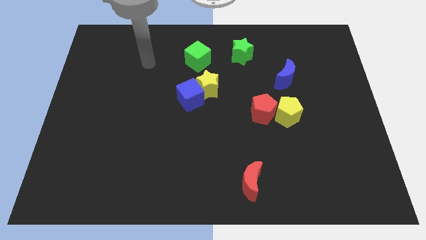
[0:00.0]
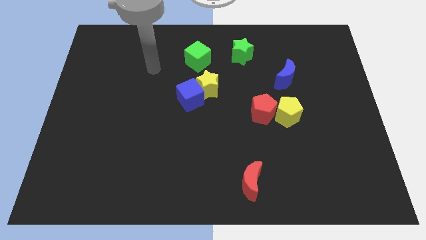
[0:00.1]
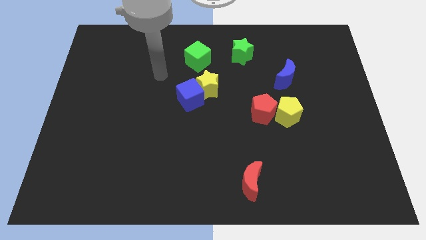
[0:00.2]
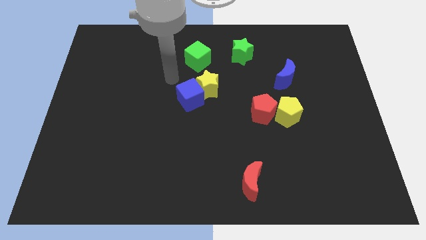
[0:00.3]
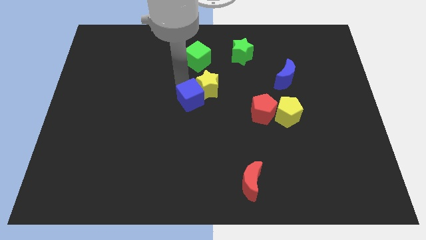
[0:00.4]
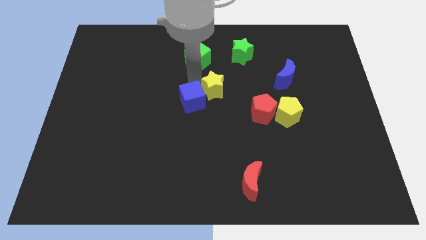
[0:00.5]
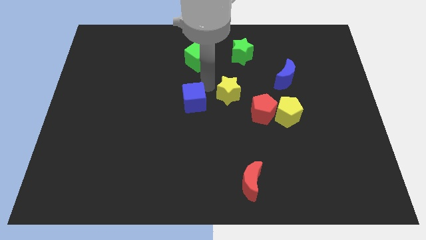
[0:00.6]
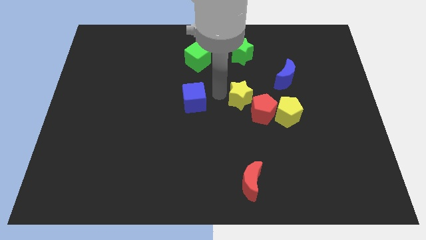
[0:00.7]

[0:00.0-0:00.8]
pull the blue cube apart from the yellow star

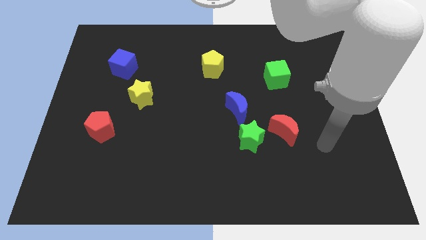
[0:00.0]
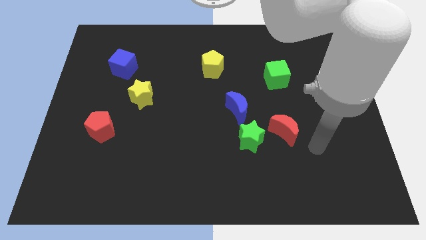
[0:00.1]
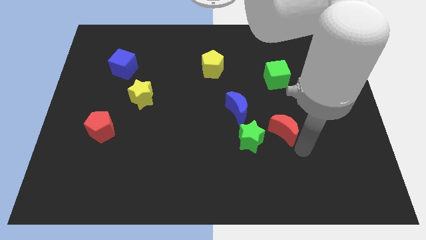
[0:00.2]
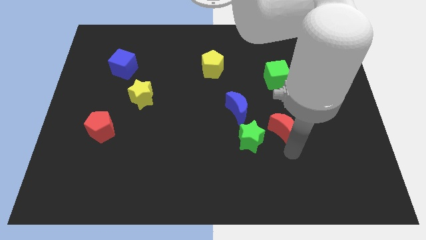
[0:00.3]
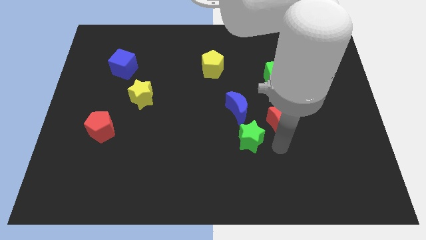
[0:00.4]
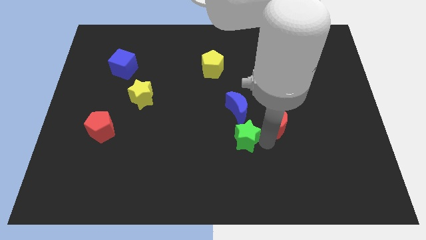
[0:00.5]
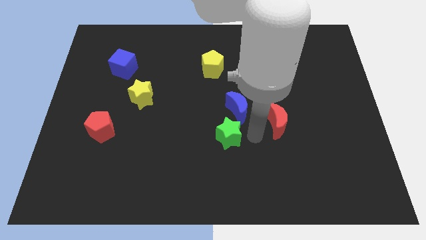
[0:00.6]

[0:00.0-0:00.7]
pull the red moon apart from the green star

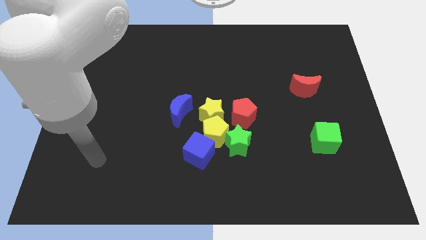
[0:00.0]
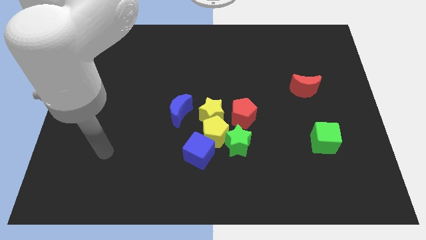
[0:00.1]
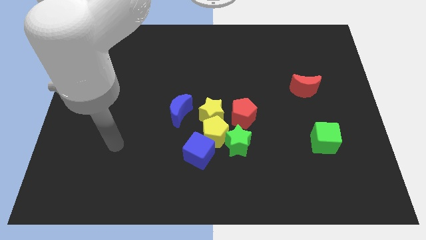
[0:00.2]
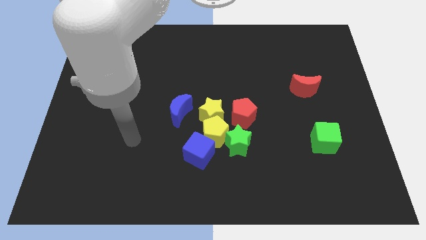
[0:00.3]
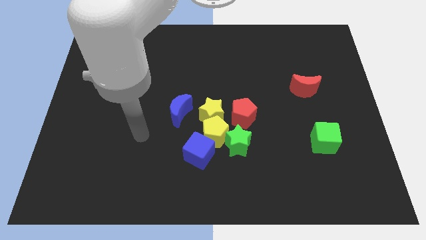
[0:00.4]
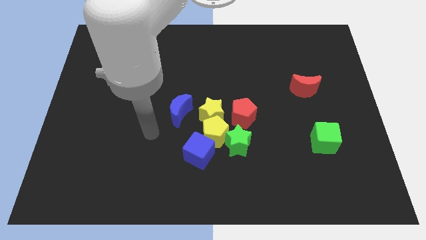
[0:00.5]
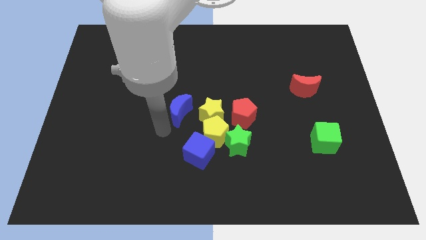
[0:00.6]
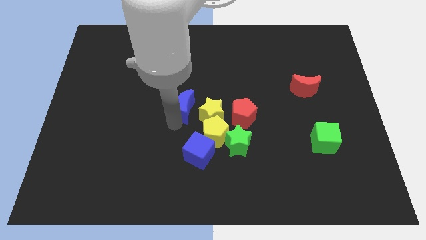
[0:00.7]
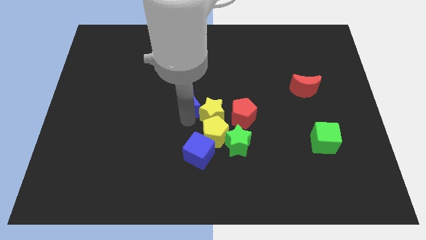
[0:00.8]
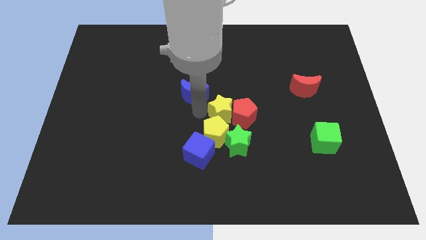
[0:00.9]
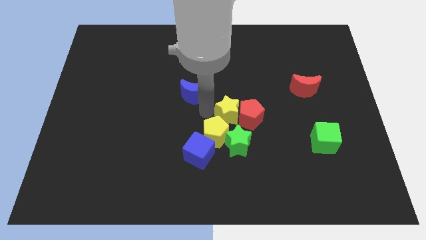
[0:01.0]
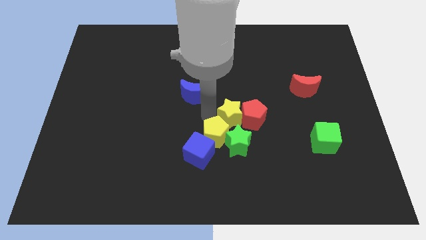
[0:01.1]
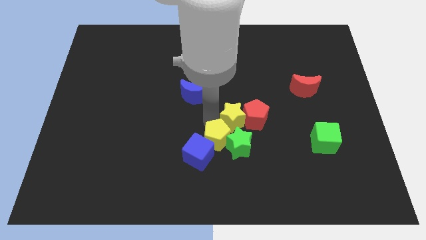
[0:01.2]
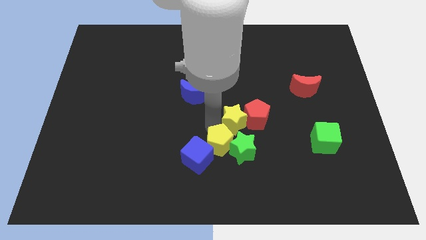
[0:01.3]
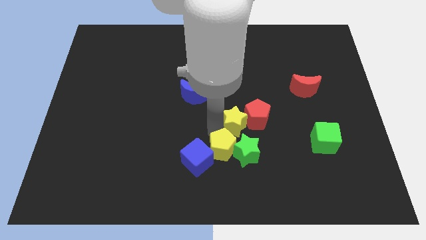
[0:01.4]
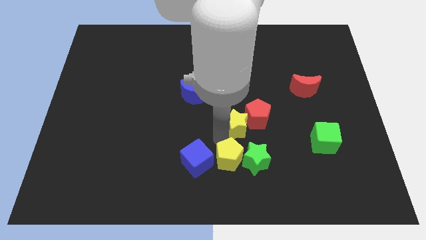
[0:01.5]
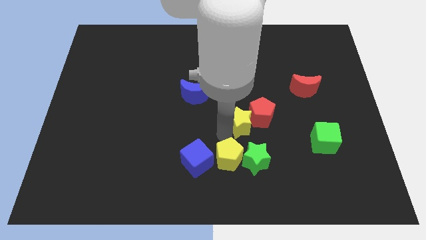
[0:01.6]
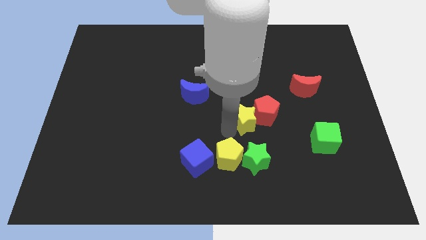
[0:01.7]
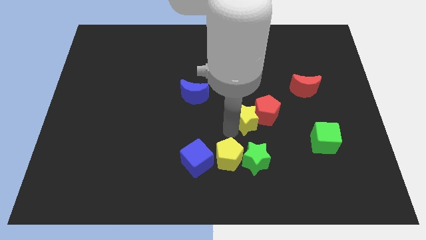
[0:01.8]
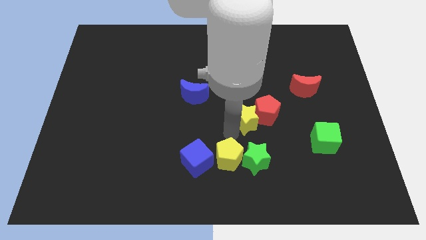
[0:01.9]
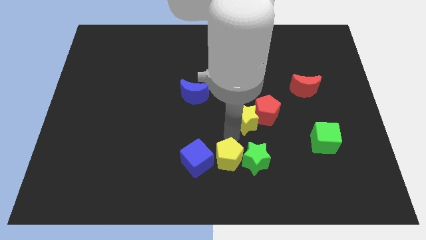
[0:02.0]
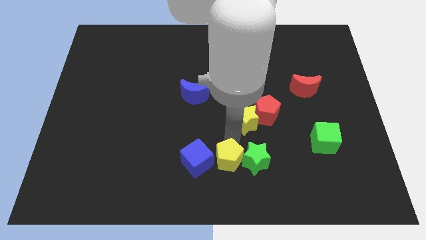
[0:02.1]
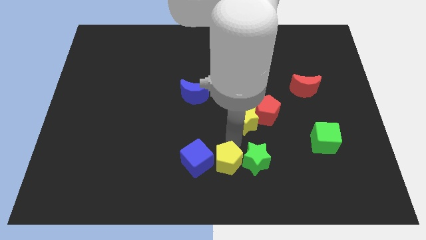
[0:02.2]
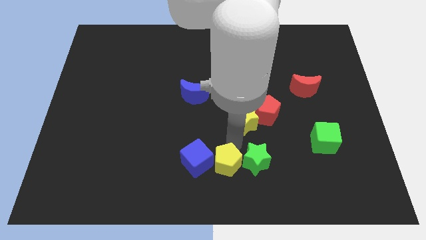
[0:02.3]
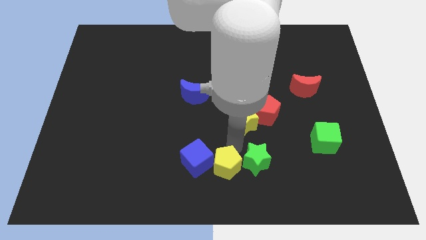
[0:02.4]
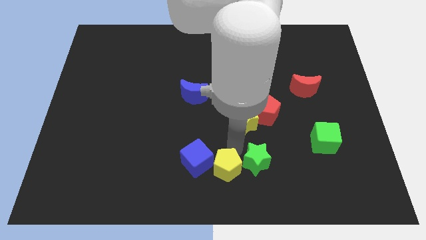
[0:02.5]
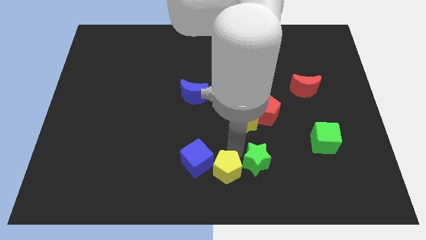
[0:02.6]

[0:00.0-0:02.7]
separate the yellow pentagon from the group

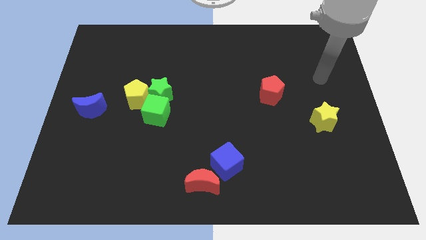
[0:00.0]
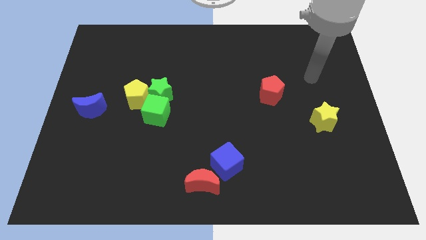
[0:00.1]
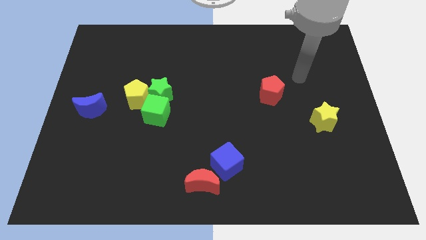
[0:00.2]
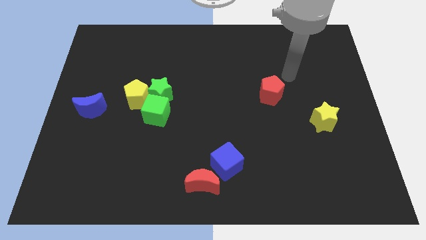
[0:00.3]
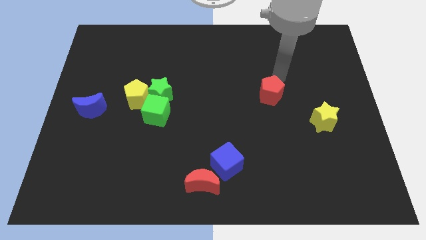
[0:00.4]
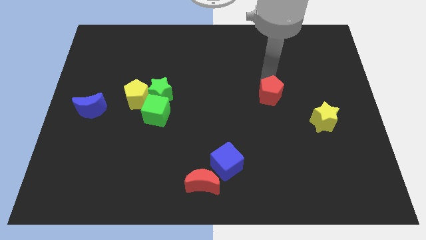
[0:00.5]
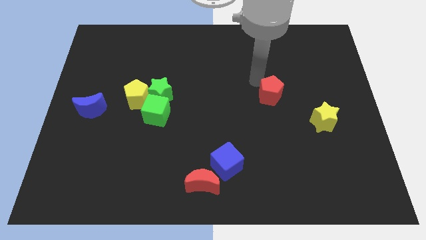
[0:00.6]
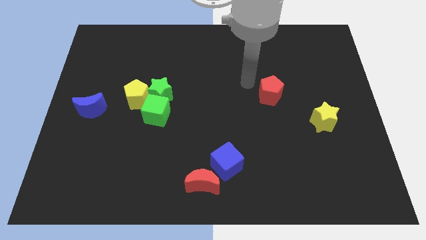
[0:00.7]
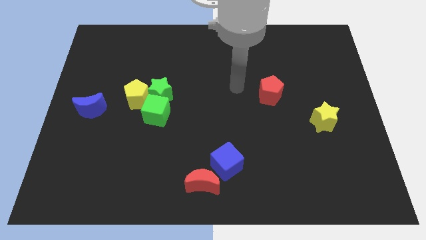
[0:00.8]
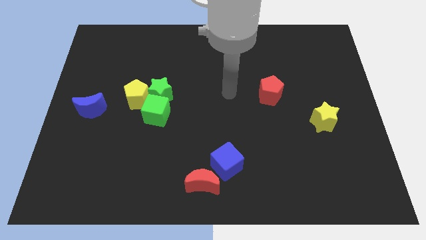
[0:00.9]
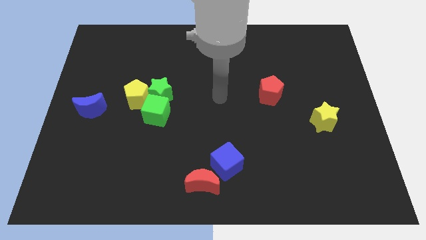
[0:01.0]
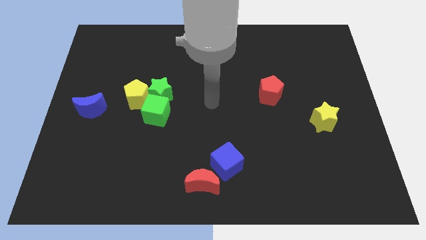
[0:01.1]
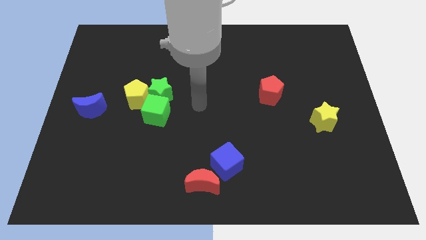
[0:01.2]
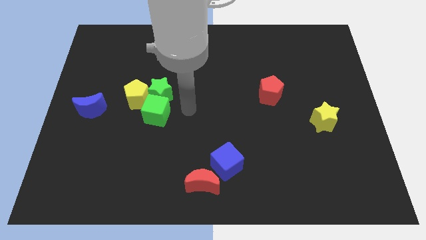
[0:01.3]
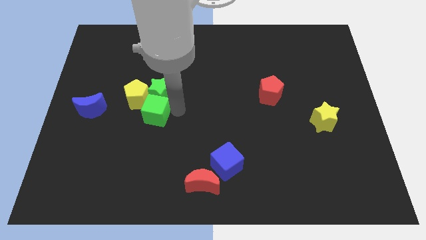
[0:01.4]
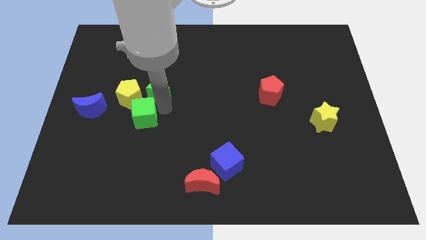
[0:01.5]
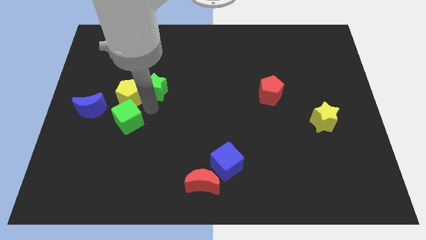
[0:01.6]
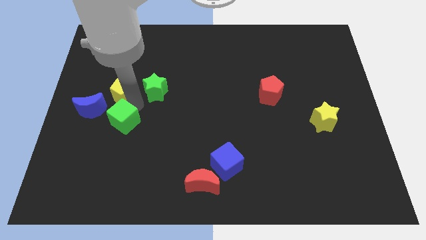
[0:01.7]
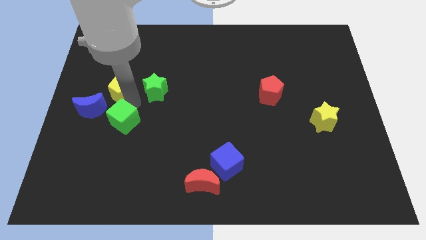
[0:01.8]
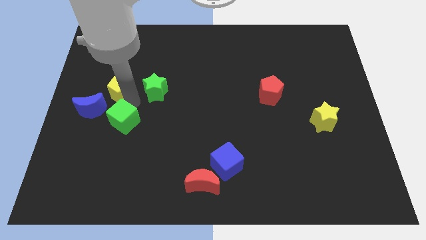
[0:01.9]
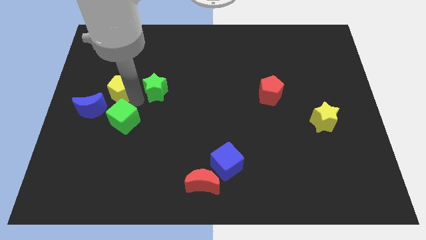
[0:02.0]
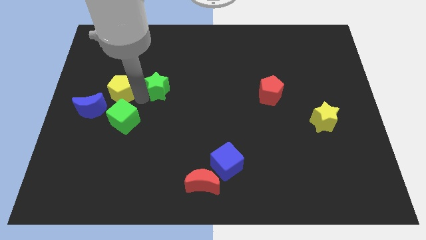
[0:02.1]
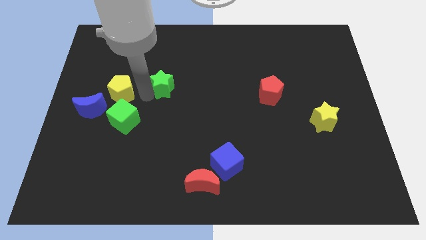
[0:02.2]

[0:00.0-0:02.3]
separate the green star from the green cube and yellow pentagon

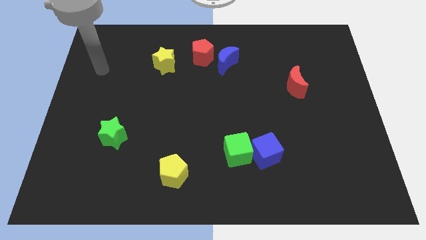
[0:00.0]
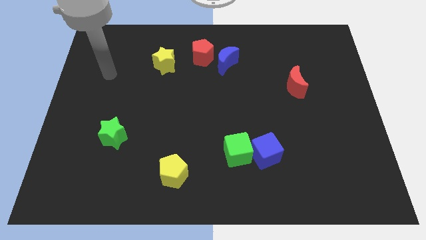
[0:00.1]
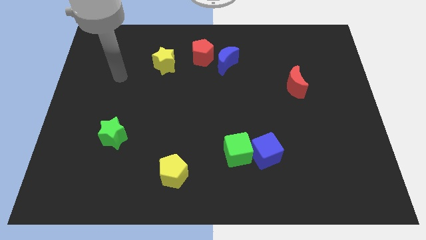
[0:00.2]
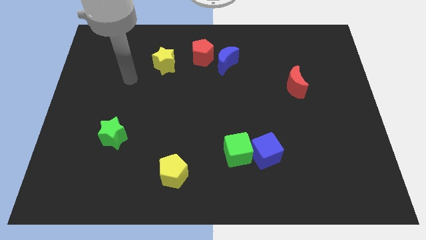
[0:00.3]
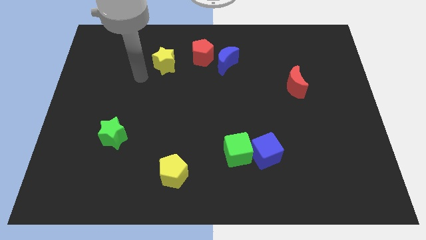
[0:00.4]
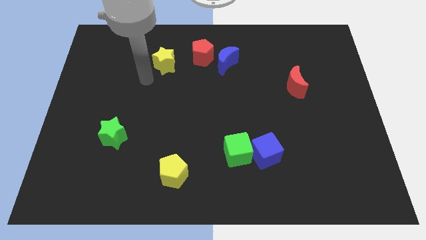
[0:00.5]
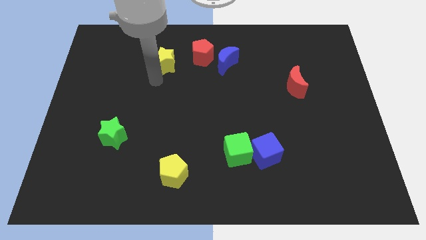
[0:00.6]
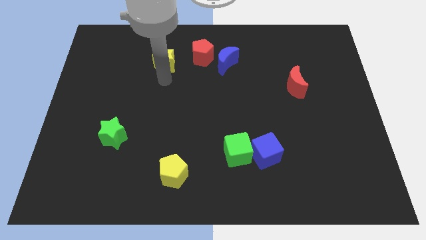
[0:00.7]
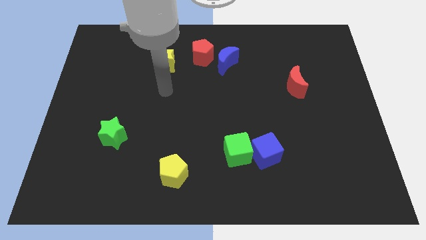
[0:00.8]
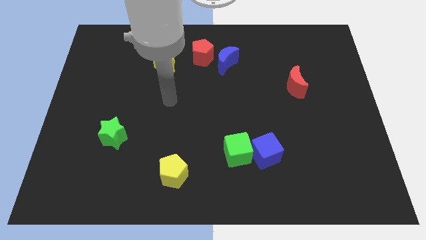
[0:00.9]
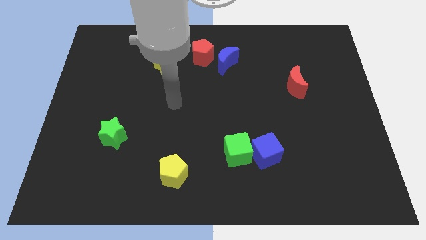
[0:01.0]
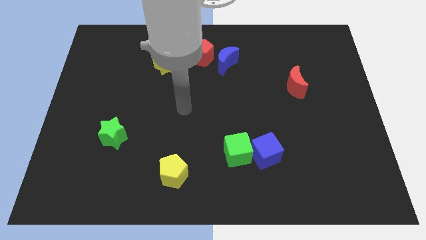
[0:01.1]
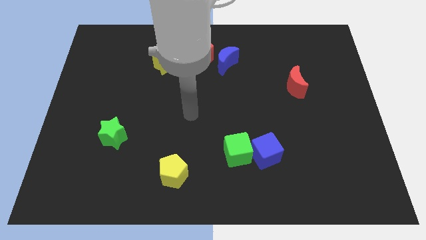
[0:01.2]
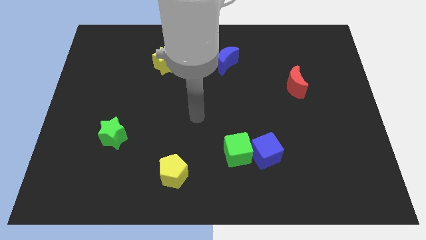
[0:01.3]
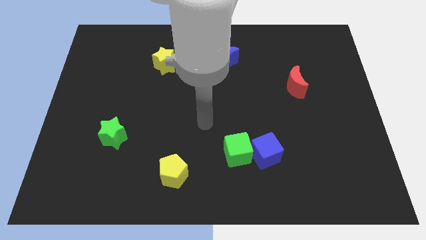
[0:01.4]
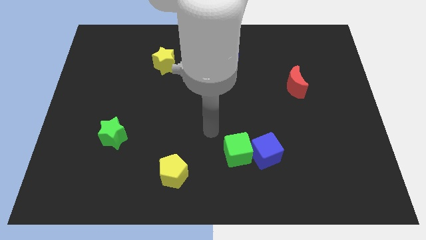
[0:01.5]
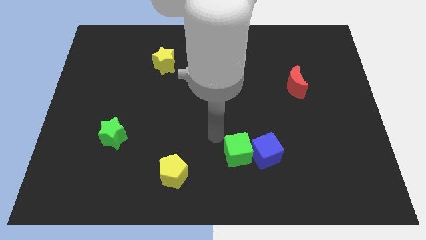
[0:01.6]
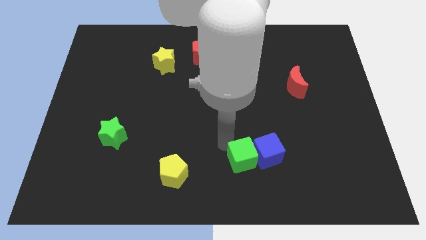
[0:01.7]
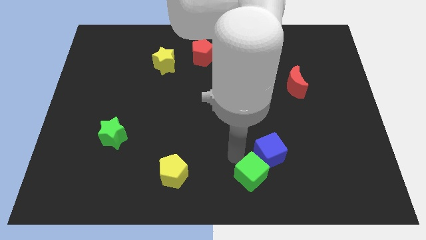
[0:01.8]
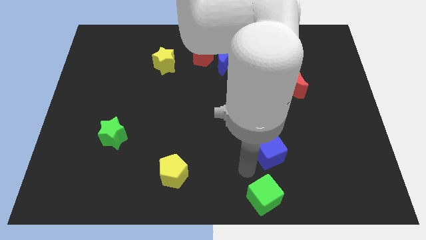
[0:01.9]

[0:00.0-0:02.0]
move the blue cube away from the green cube

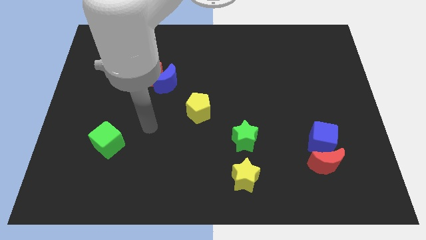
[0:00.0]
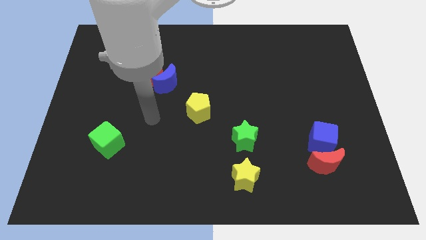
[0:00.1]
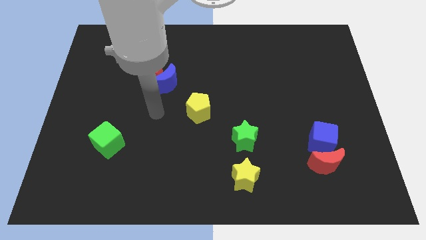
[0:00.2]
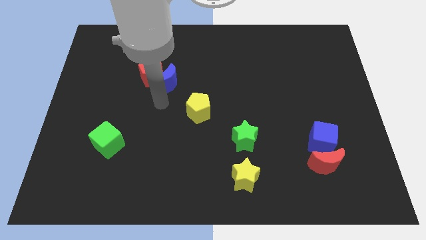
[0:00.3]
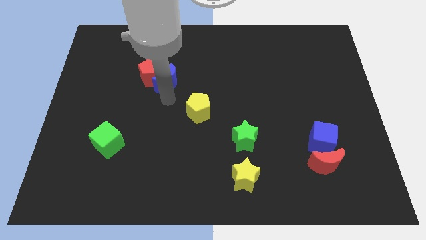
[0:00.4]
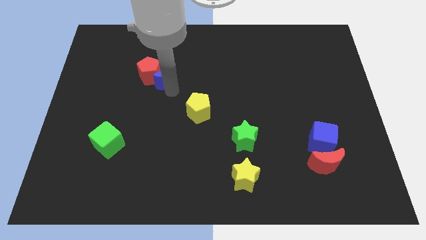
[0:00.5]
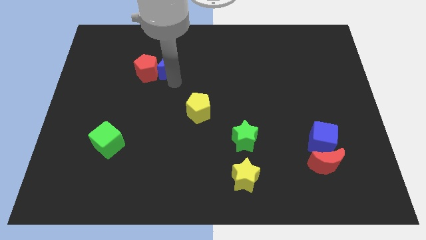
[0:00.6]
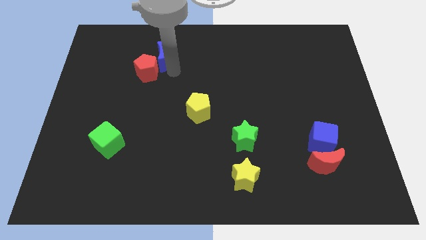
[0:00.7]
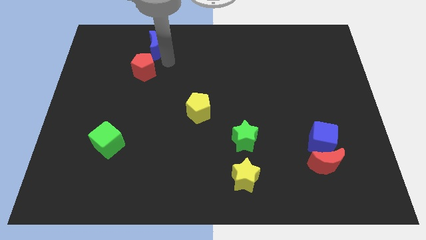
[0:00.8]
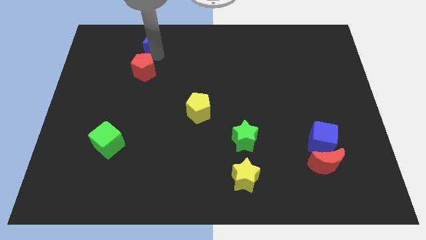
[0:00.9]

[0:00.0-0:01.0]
pull the red pentagon apart from the blue moon
